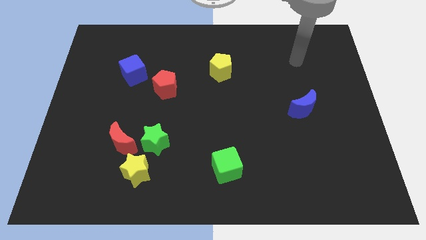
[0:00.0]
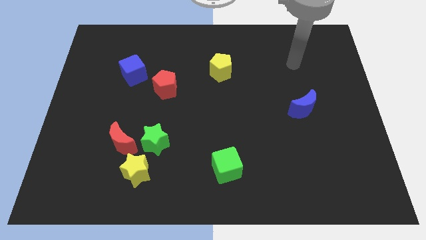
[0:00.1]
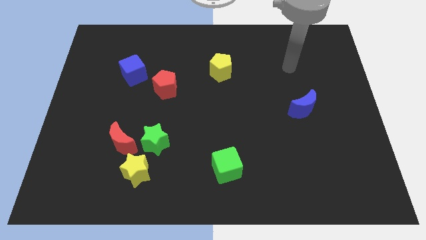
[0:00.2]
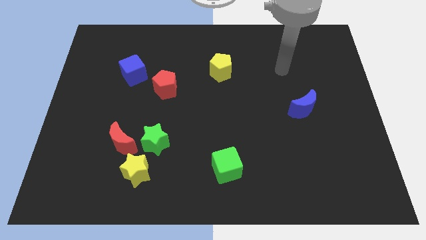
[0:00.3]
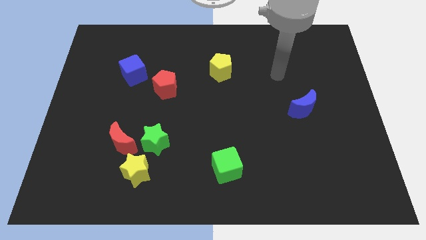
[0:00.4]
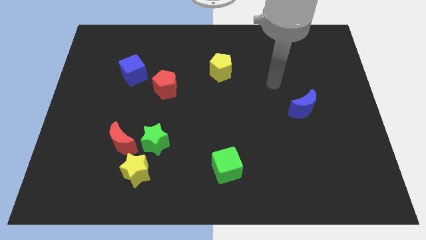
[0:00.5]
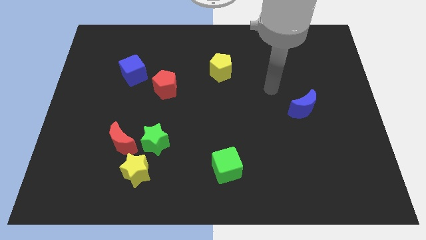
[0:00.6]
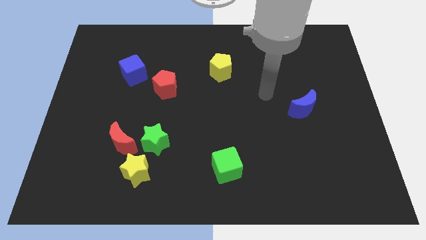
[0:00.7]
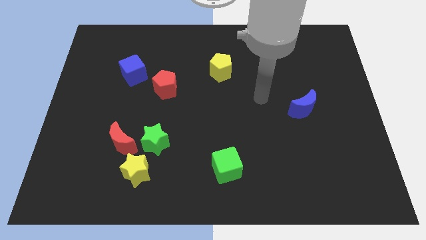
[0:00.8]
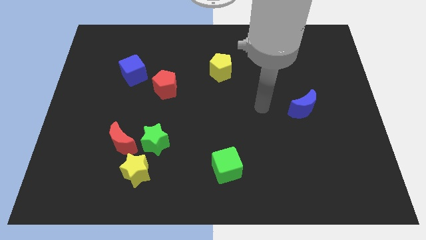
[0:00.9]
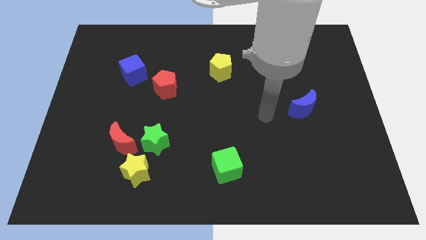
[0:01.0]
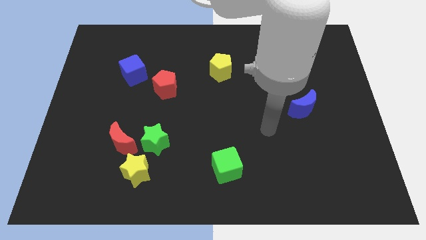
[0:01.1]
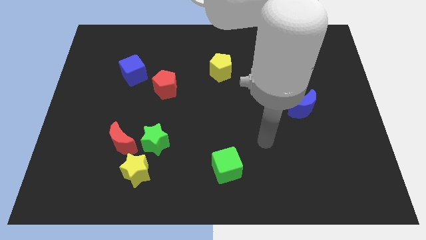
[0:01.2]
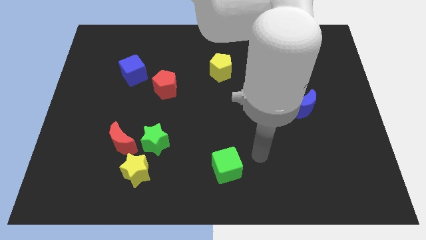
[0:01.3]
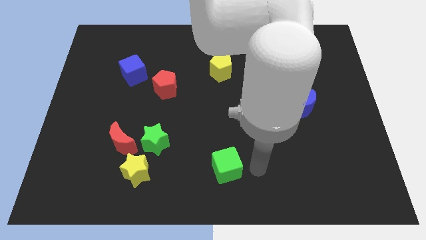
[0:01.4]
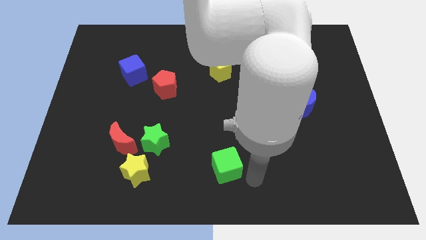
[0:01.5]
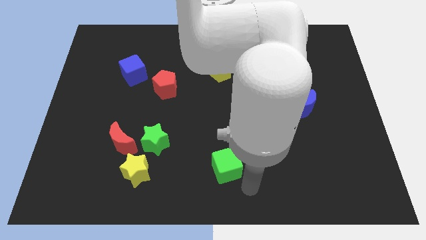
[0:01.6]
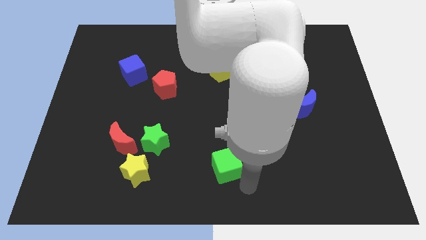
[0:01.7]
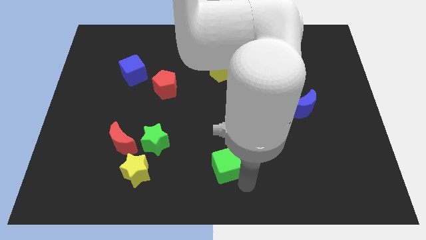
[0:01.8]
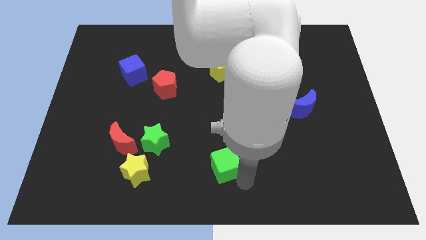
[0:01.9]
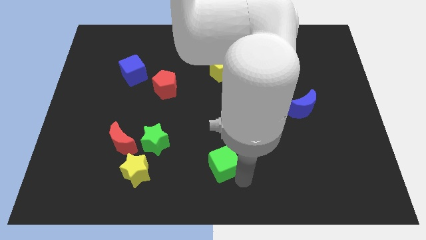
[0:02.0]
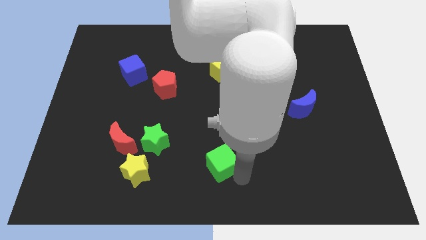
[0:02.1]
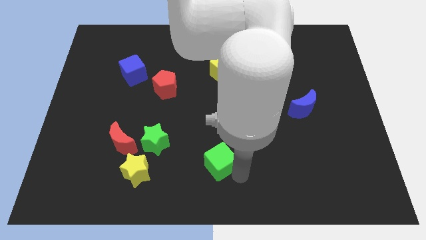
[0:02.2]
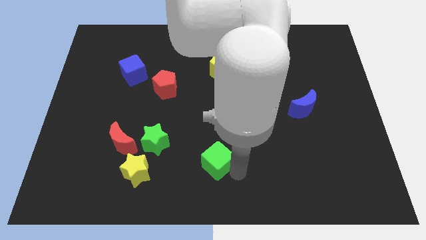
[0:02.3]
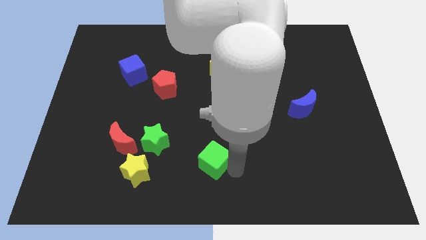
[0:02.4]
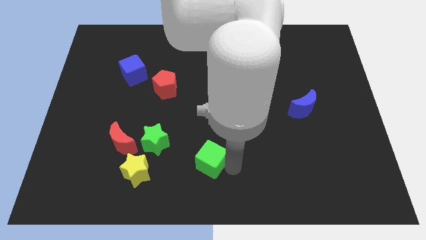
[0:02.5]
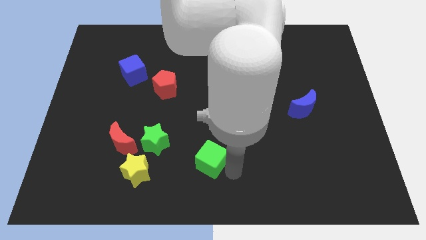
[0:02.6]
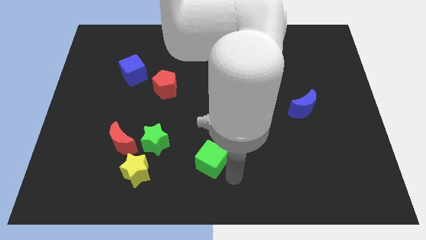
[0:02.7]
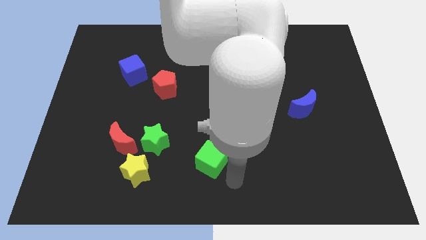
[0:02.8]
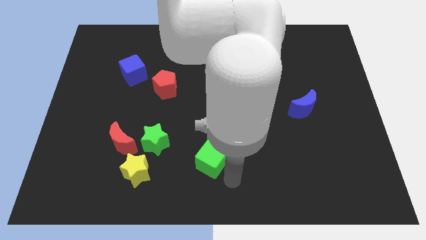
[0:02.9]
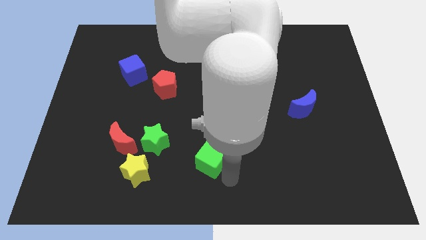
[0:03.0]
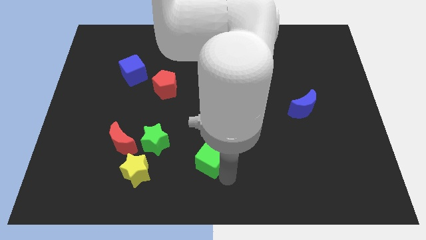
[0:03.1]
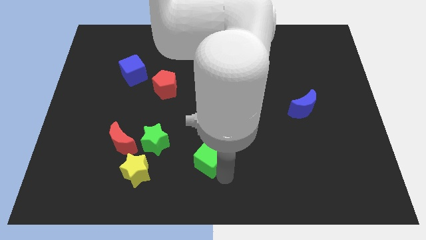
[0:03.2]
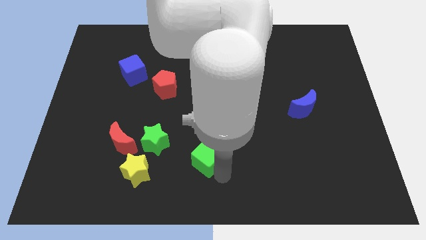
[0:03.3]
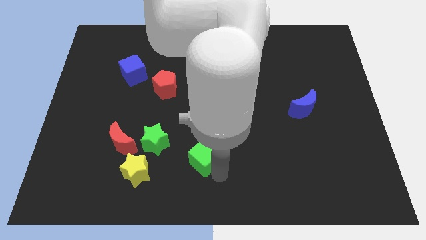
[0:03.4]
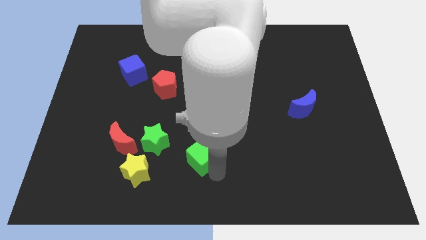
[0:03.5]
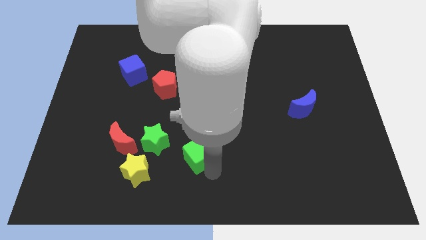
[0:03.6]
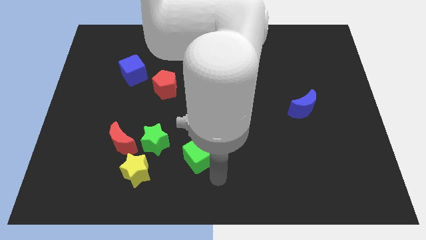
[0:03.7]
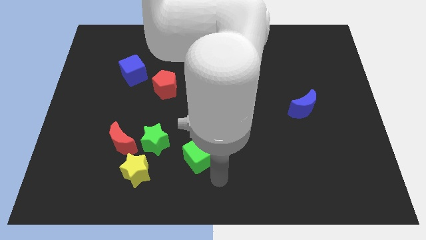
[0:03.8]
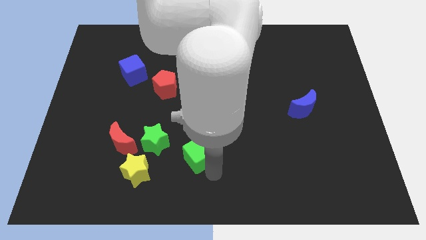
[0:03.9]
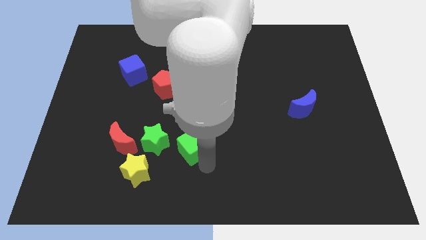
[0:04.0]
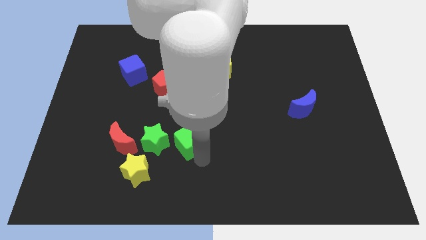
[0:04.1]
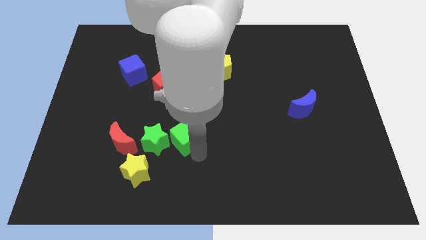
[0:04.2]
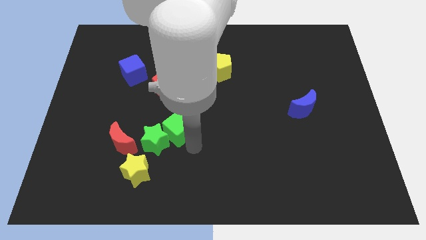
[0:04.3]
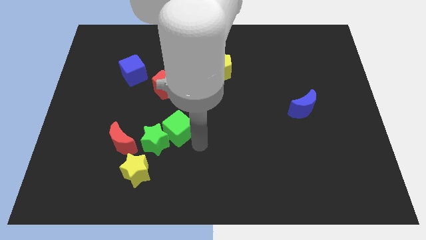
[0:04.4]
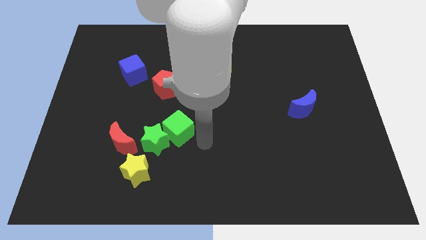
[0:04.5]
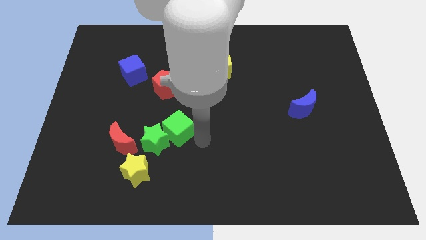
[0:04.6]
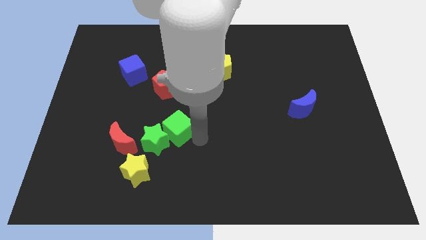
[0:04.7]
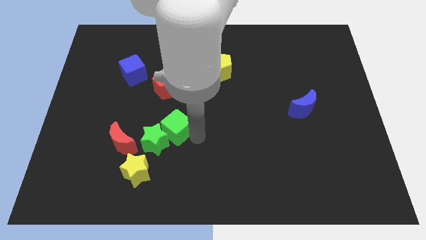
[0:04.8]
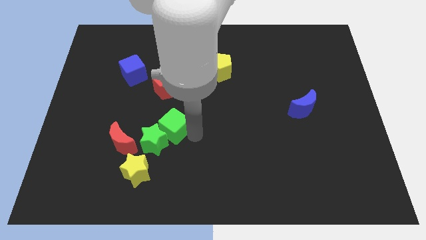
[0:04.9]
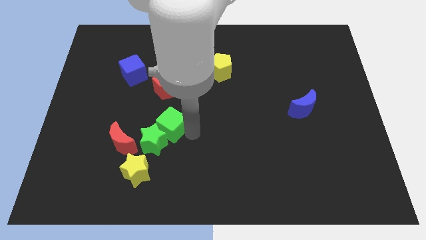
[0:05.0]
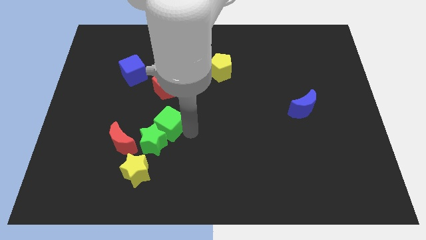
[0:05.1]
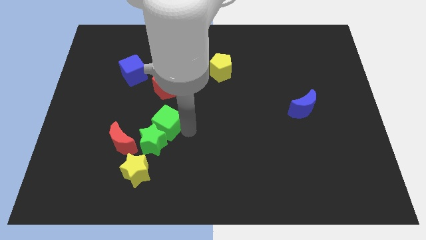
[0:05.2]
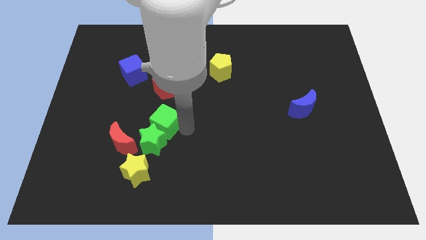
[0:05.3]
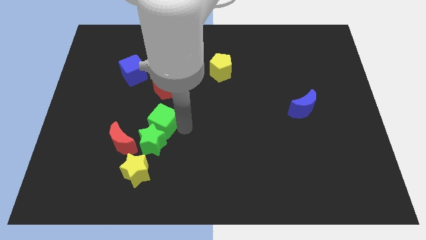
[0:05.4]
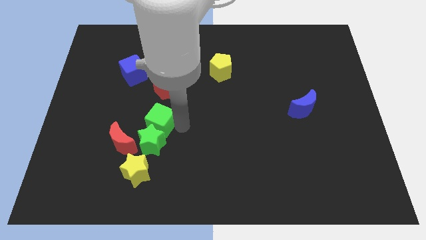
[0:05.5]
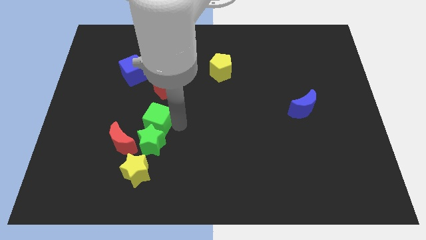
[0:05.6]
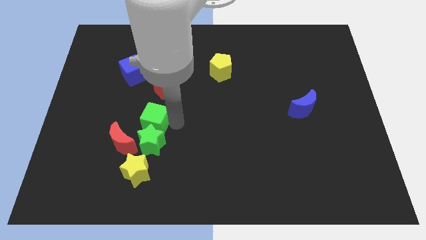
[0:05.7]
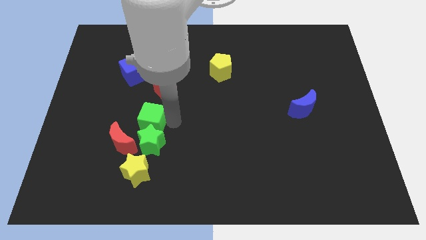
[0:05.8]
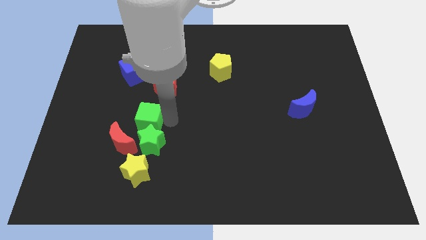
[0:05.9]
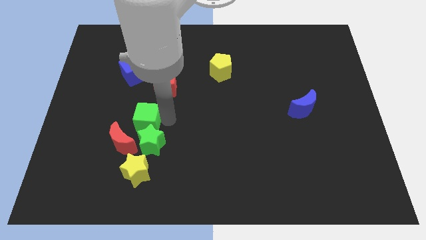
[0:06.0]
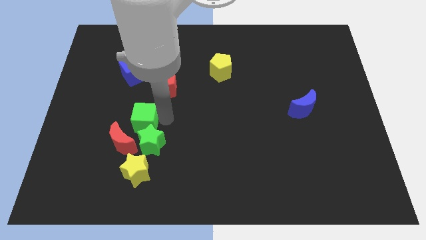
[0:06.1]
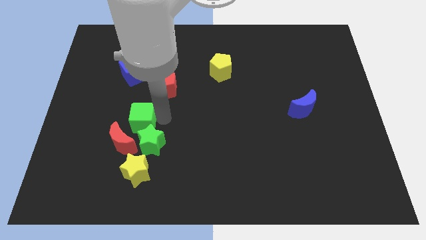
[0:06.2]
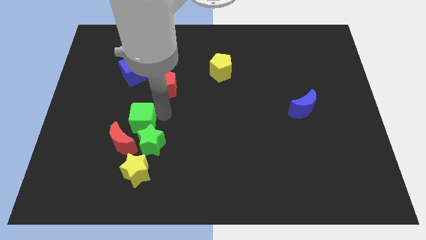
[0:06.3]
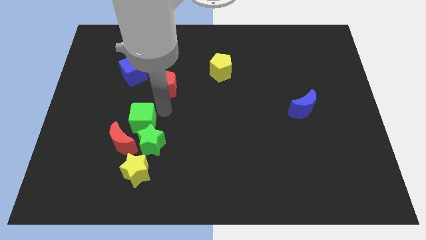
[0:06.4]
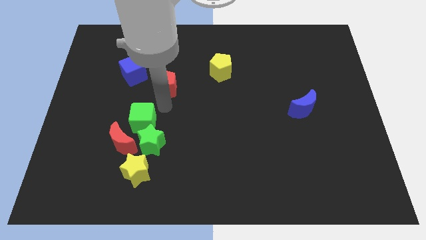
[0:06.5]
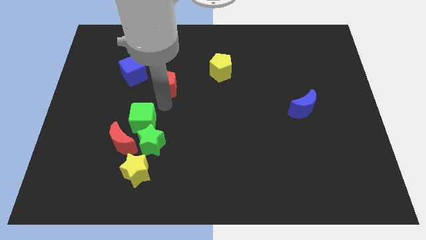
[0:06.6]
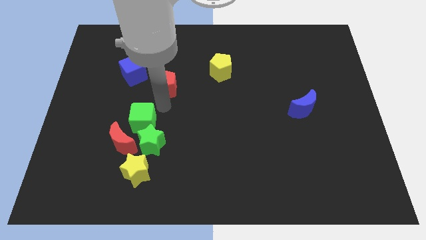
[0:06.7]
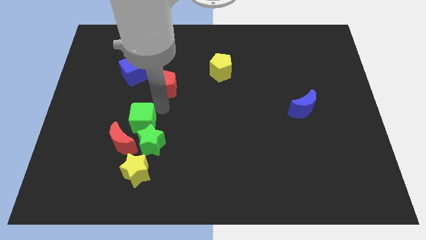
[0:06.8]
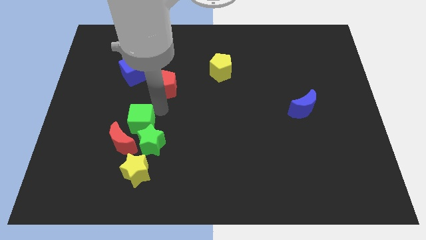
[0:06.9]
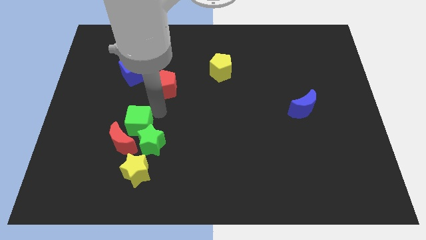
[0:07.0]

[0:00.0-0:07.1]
move the green cube next to the red moon
